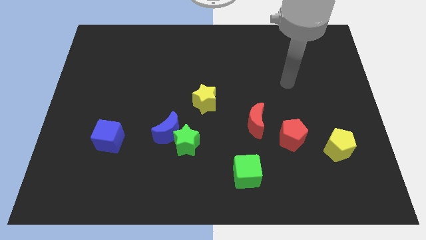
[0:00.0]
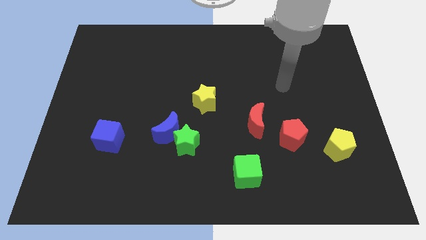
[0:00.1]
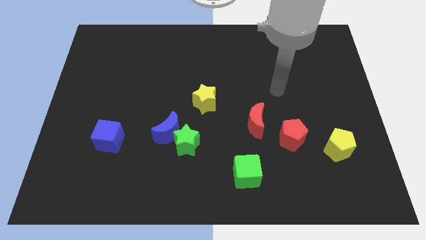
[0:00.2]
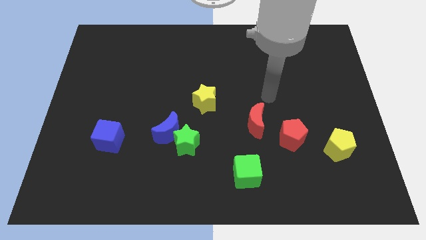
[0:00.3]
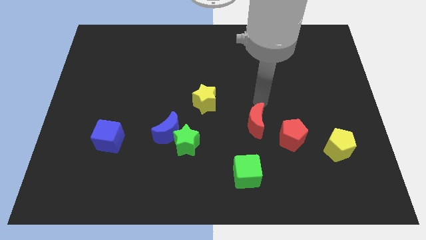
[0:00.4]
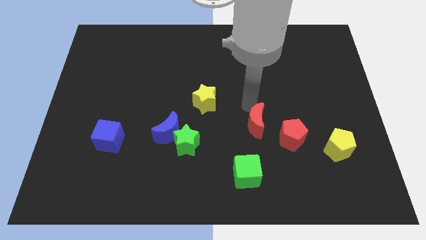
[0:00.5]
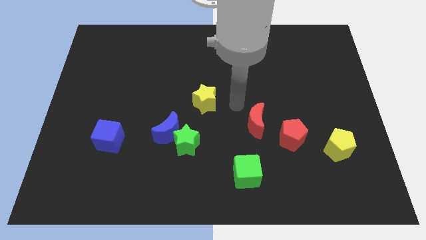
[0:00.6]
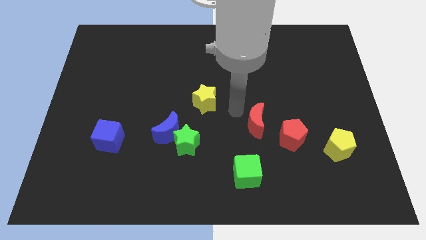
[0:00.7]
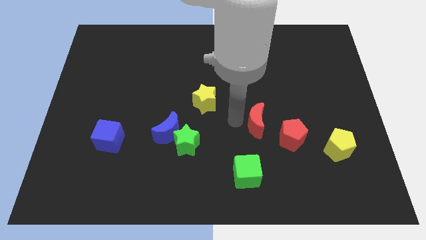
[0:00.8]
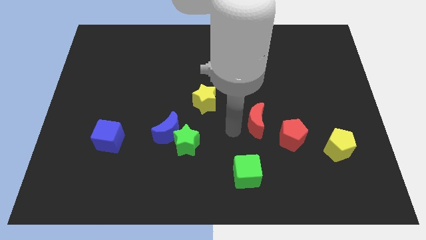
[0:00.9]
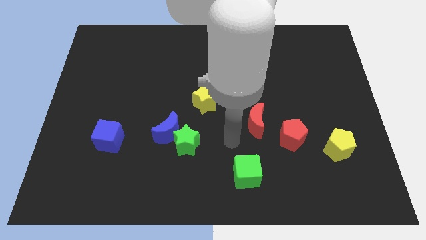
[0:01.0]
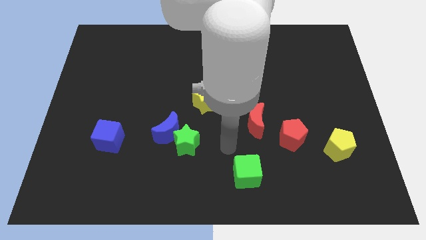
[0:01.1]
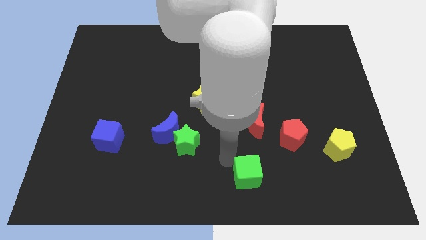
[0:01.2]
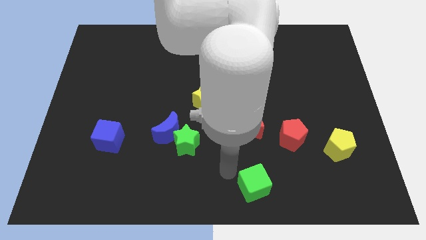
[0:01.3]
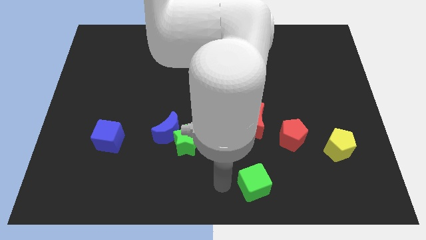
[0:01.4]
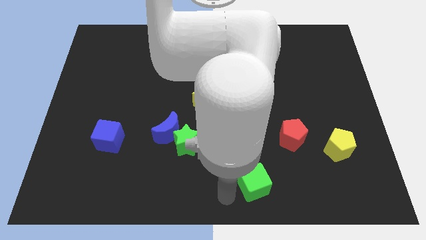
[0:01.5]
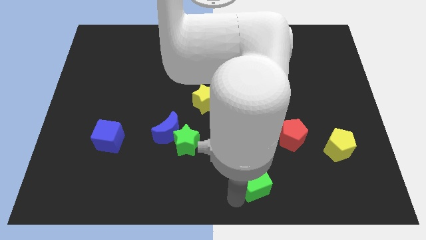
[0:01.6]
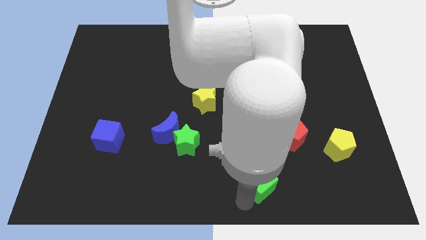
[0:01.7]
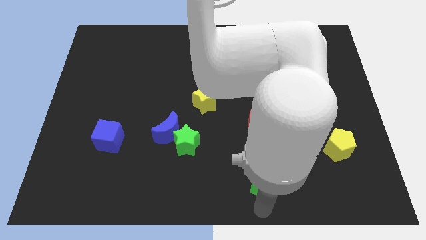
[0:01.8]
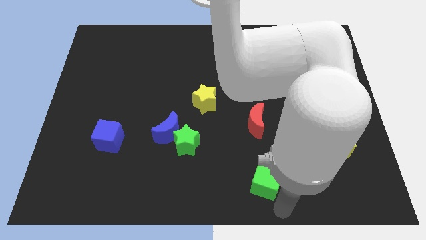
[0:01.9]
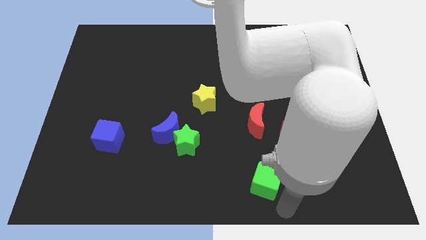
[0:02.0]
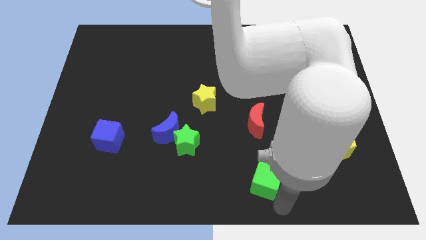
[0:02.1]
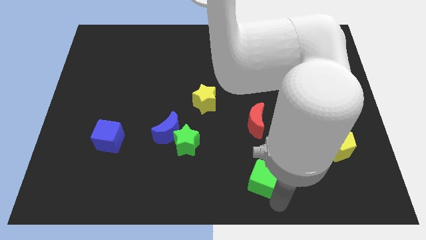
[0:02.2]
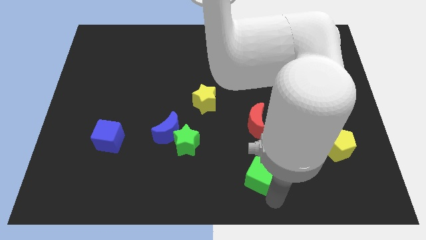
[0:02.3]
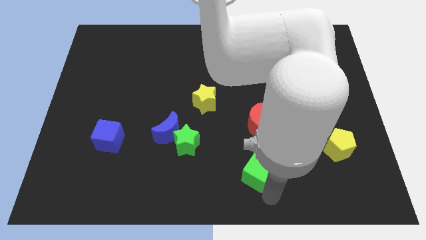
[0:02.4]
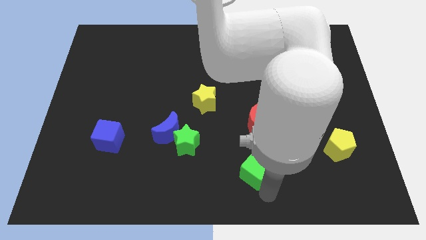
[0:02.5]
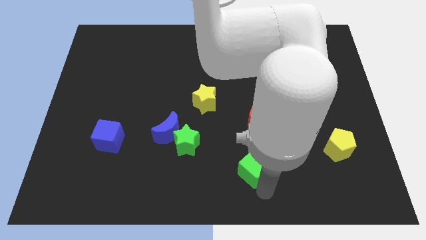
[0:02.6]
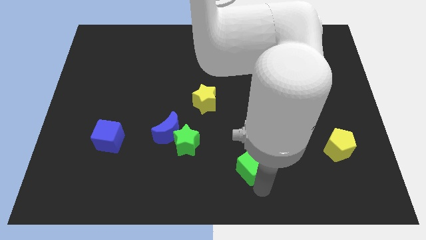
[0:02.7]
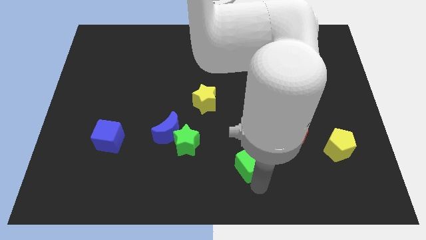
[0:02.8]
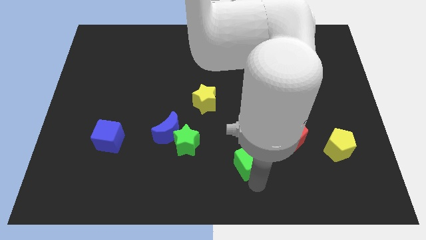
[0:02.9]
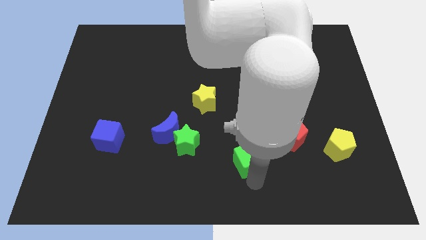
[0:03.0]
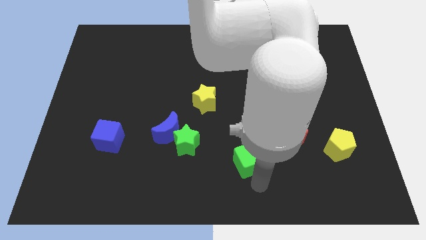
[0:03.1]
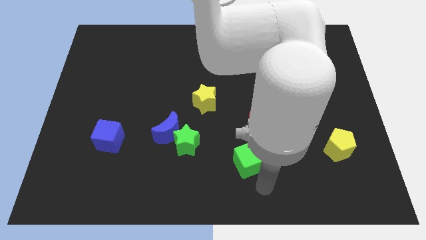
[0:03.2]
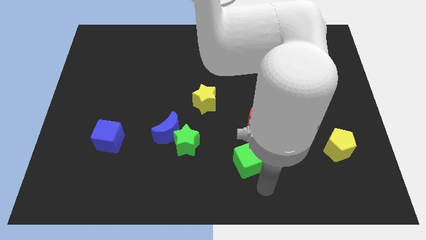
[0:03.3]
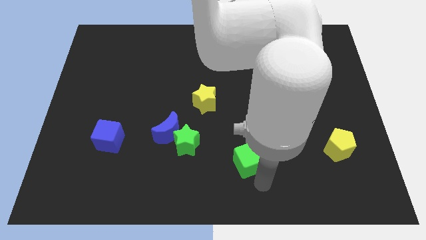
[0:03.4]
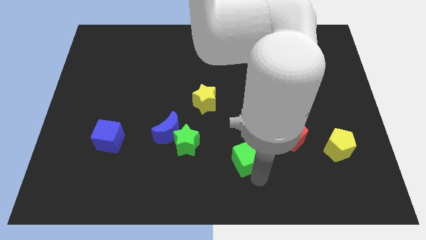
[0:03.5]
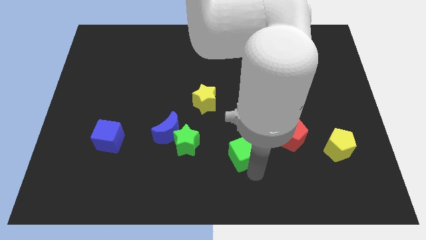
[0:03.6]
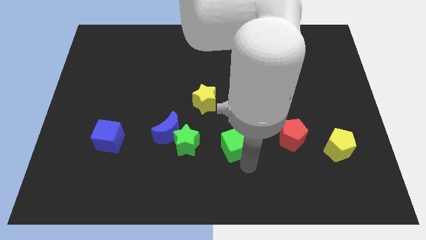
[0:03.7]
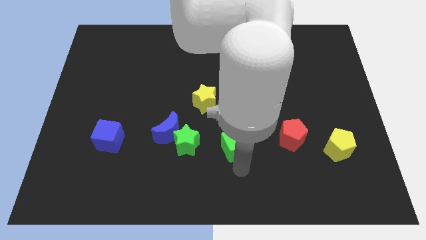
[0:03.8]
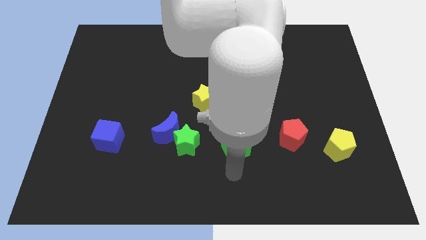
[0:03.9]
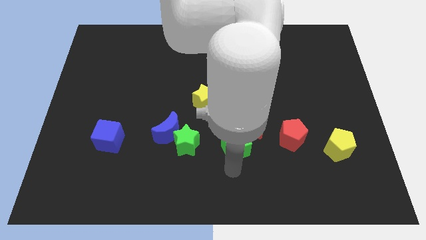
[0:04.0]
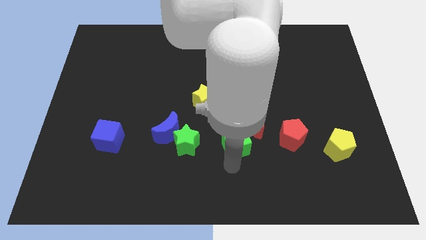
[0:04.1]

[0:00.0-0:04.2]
slide the green cube up a little

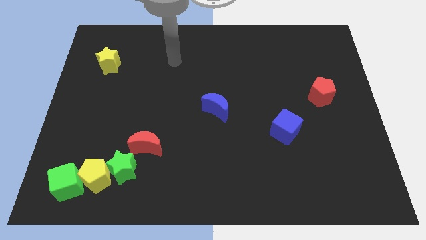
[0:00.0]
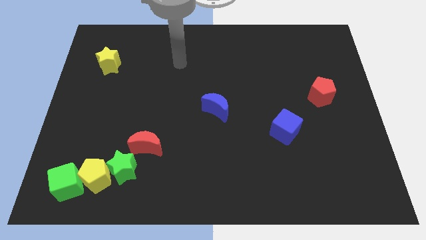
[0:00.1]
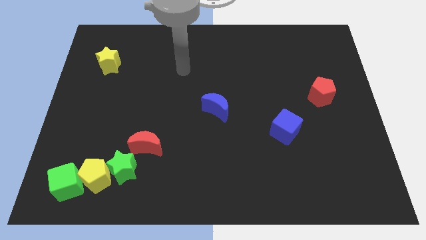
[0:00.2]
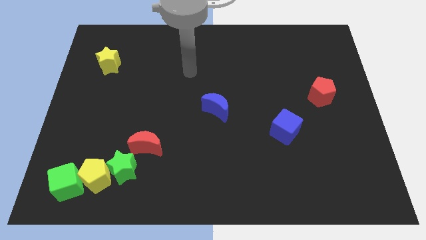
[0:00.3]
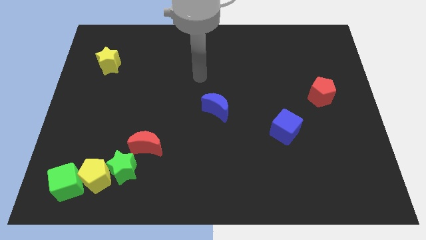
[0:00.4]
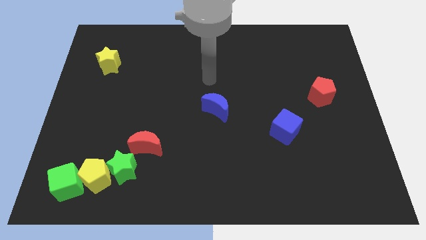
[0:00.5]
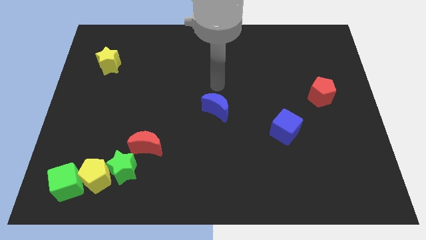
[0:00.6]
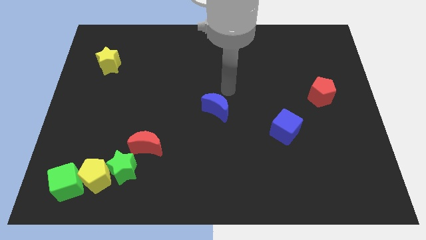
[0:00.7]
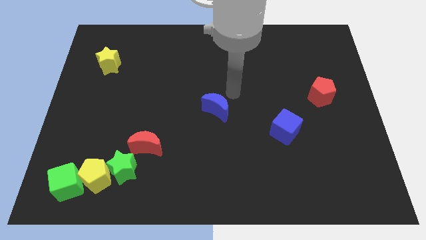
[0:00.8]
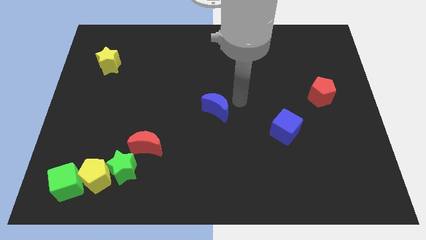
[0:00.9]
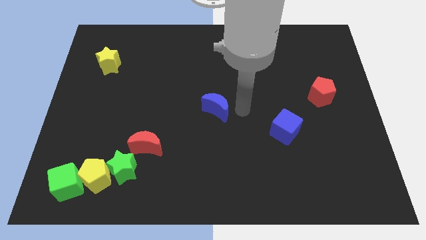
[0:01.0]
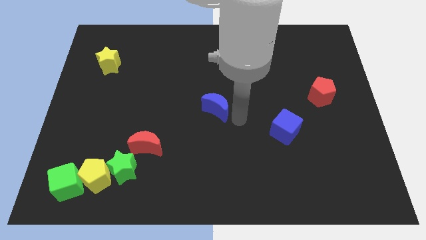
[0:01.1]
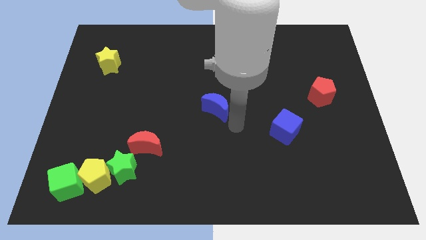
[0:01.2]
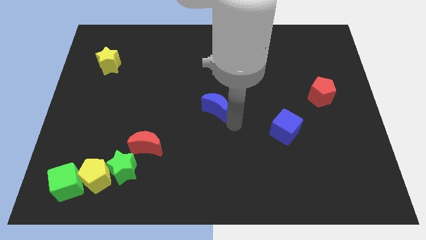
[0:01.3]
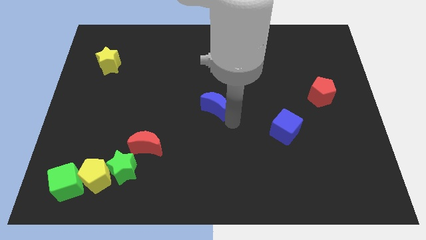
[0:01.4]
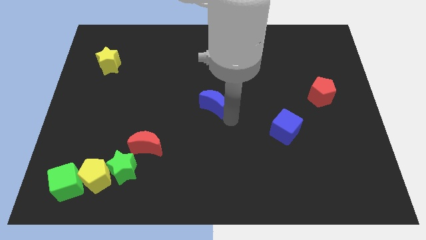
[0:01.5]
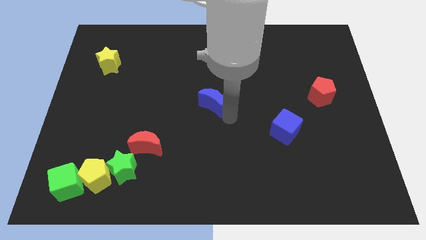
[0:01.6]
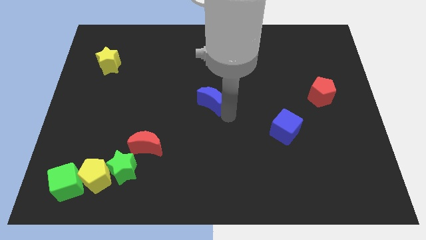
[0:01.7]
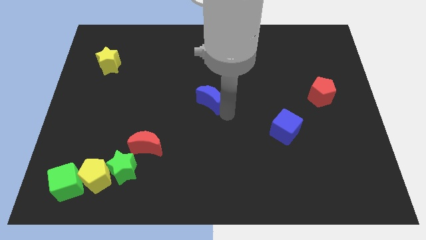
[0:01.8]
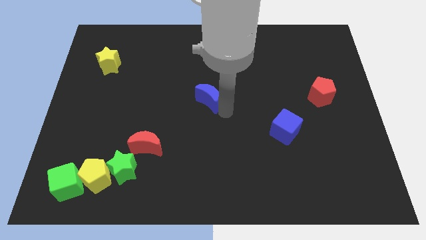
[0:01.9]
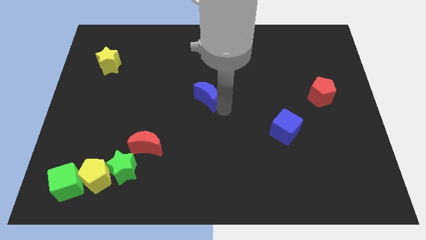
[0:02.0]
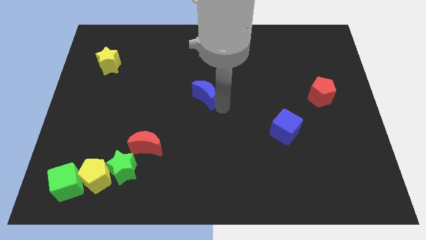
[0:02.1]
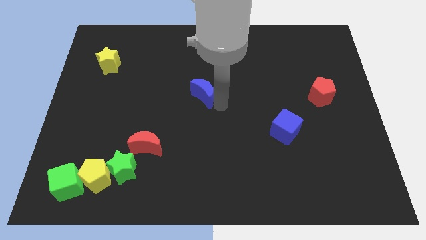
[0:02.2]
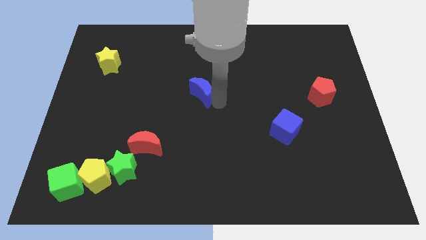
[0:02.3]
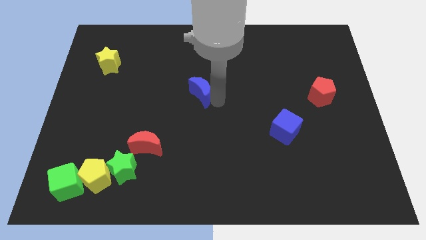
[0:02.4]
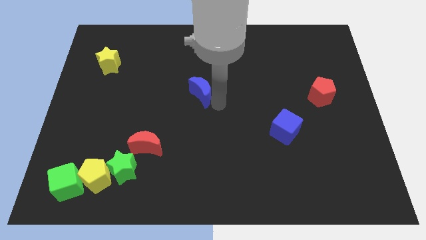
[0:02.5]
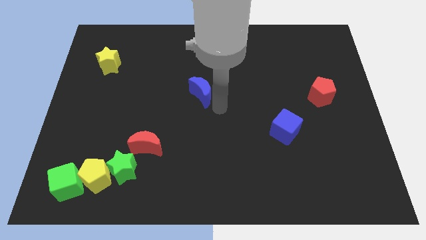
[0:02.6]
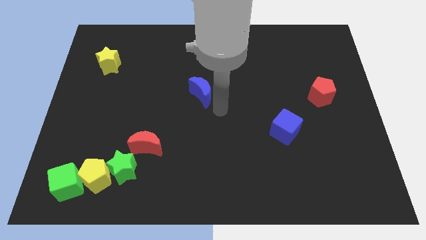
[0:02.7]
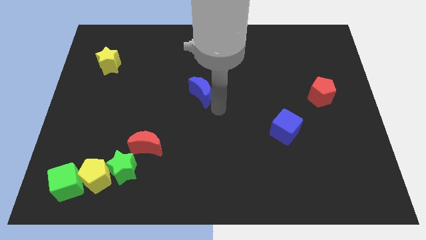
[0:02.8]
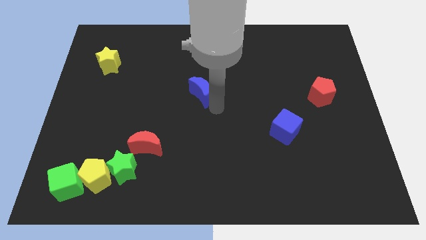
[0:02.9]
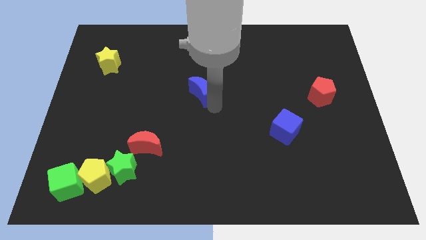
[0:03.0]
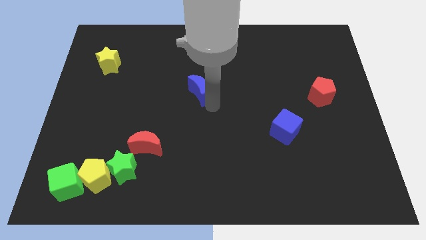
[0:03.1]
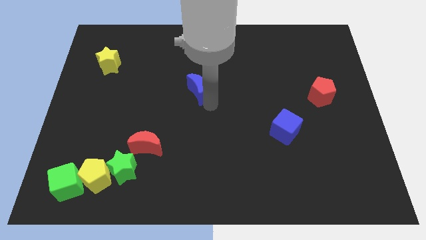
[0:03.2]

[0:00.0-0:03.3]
slightly push the blue moon up and left

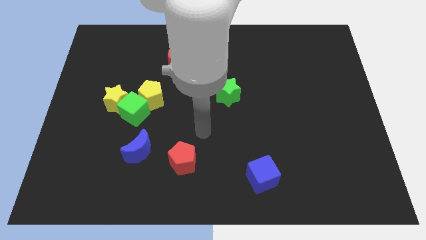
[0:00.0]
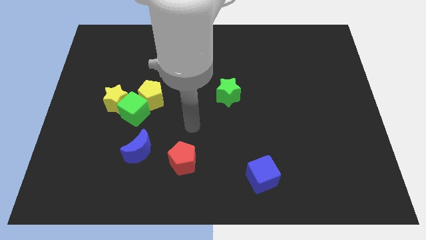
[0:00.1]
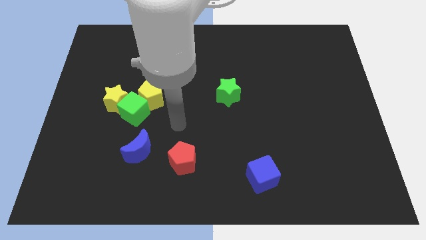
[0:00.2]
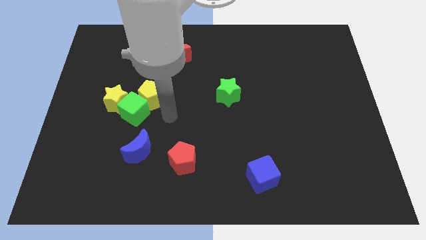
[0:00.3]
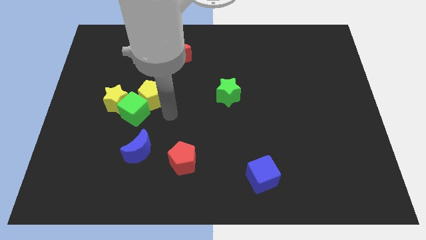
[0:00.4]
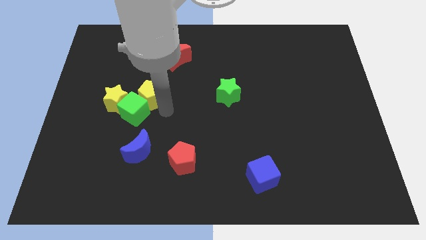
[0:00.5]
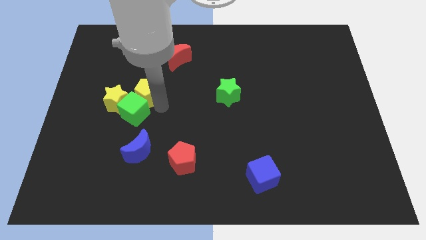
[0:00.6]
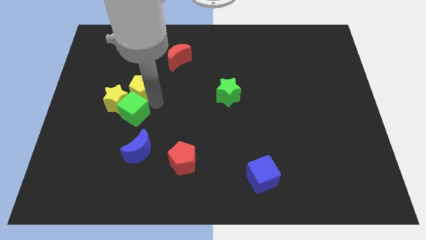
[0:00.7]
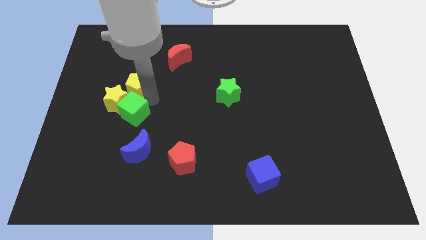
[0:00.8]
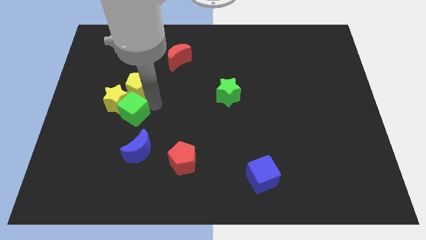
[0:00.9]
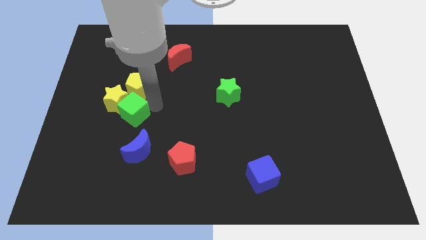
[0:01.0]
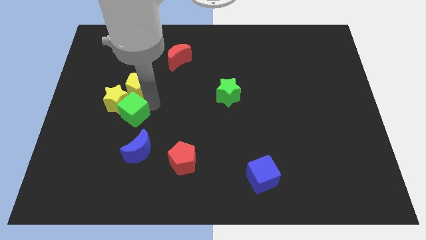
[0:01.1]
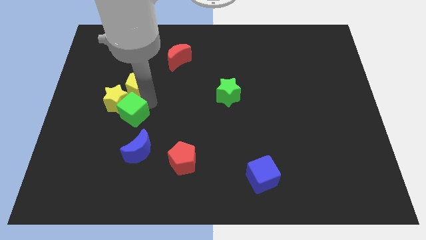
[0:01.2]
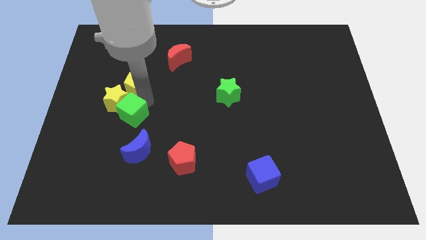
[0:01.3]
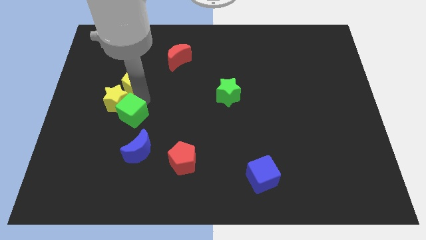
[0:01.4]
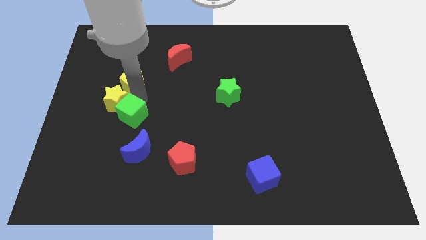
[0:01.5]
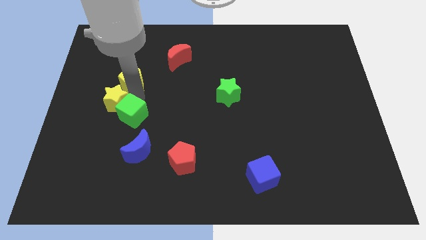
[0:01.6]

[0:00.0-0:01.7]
move the yellow pentagon slightly upwards and then left
